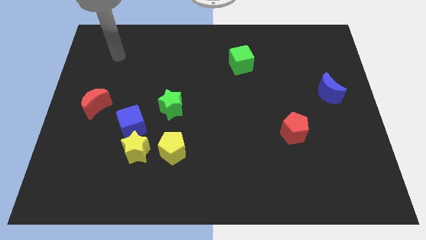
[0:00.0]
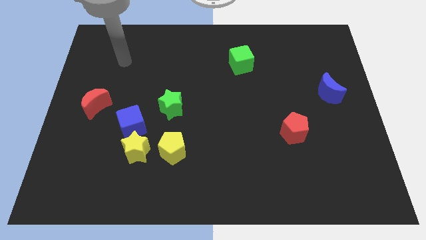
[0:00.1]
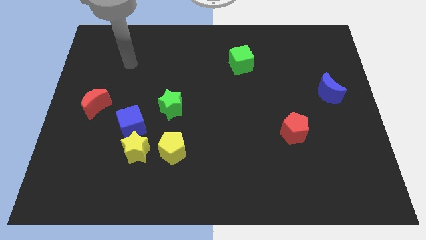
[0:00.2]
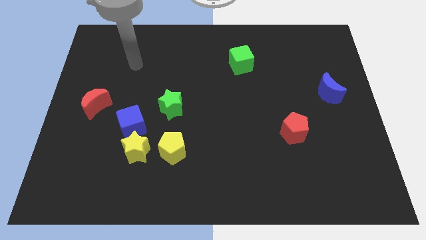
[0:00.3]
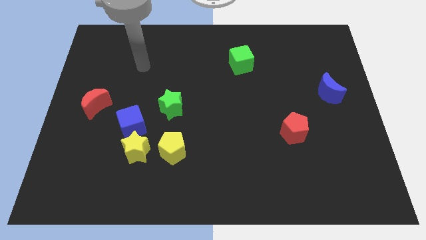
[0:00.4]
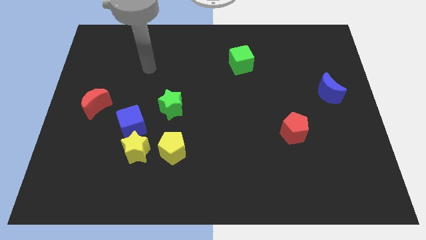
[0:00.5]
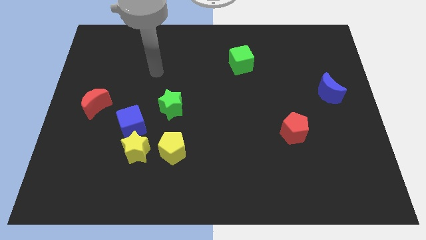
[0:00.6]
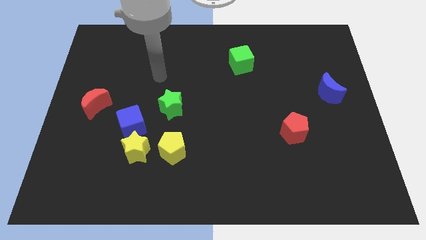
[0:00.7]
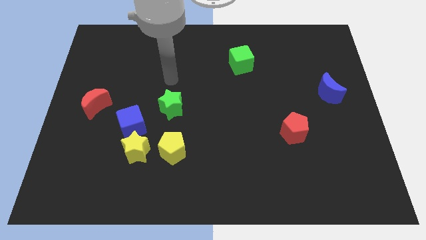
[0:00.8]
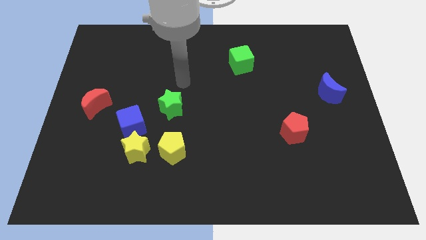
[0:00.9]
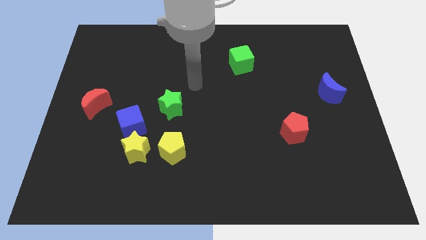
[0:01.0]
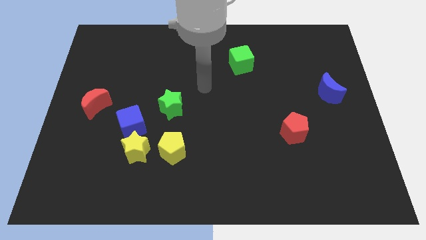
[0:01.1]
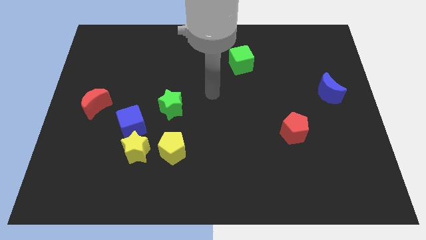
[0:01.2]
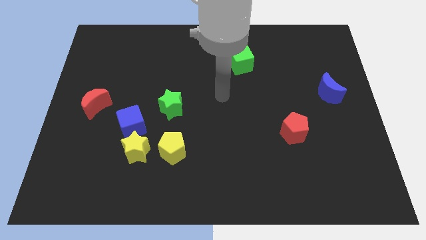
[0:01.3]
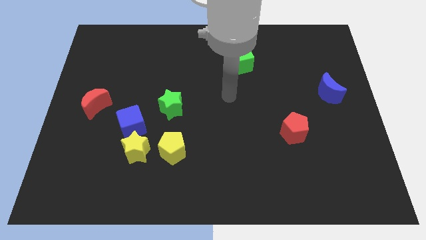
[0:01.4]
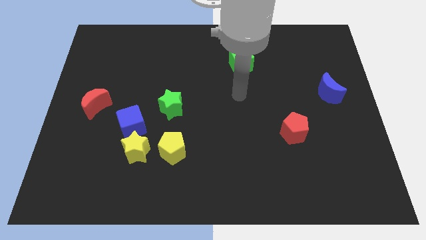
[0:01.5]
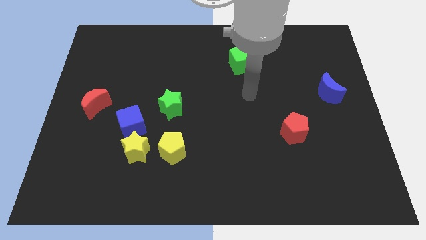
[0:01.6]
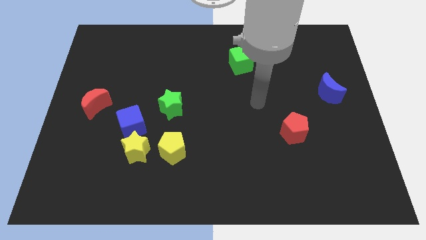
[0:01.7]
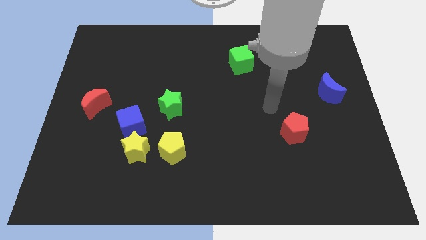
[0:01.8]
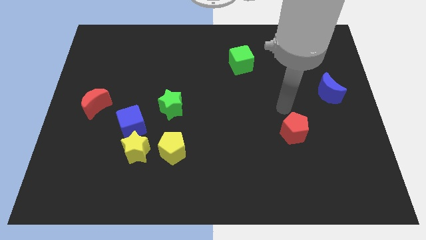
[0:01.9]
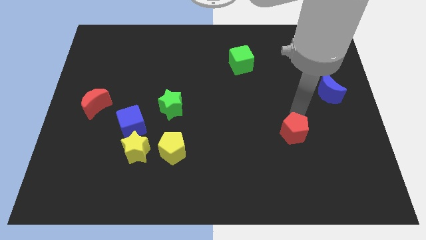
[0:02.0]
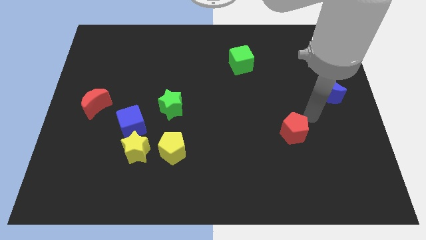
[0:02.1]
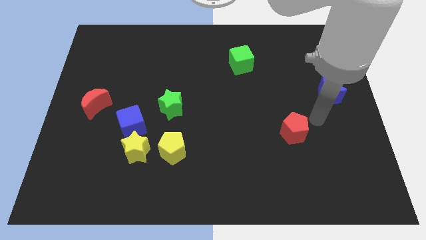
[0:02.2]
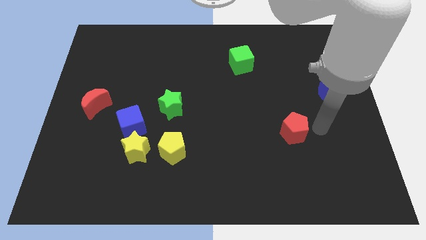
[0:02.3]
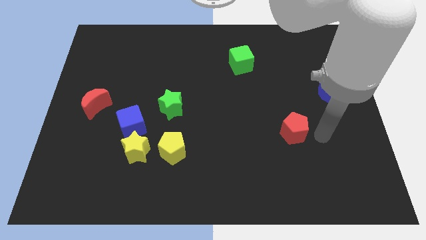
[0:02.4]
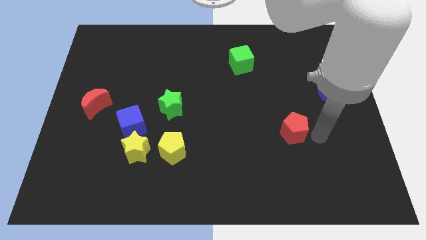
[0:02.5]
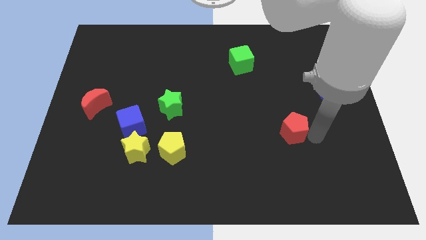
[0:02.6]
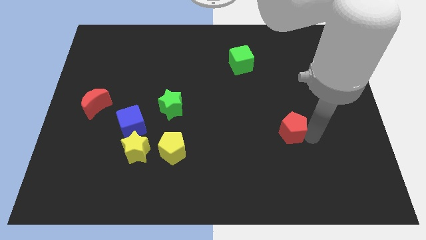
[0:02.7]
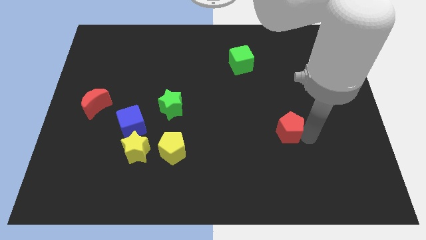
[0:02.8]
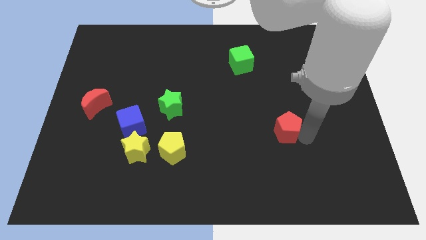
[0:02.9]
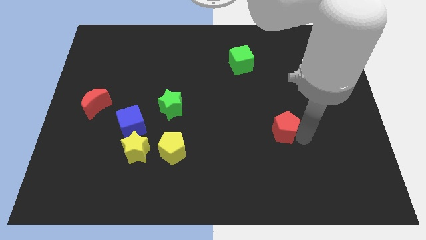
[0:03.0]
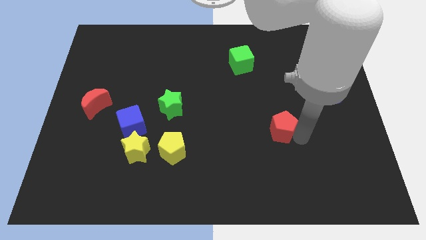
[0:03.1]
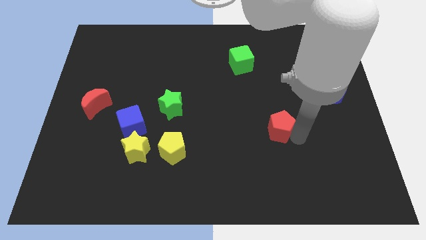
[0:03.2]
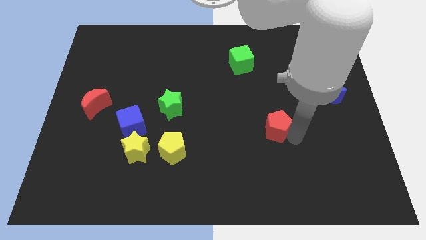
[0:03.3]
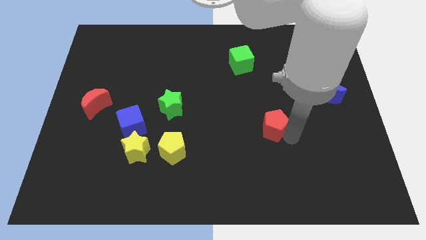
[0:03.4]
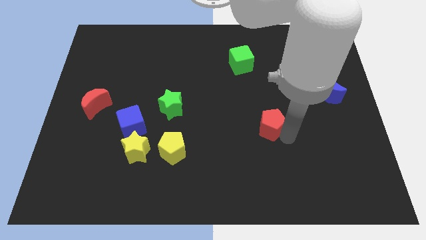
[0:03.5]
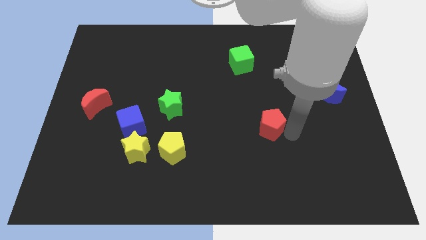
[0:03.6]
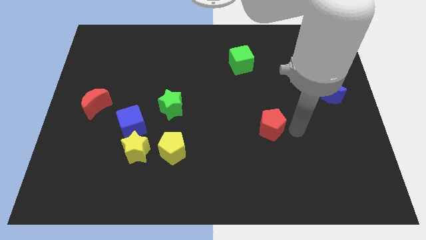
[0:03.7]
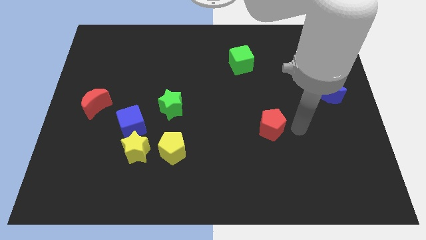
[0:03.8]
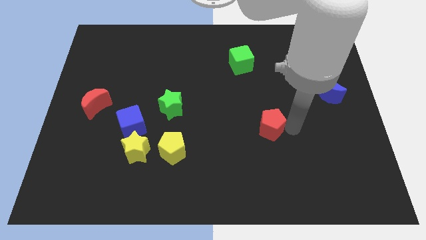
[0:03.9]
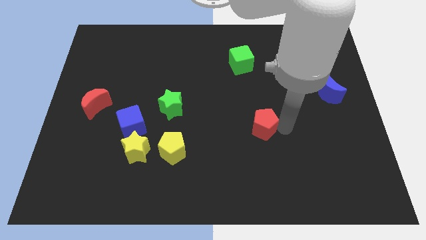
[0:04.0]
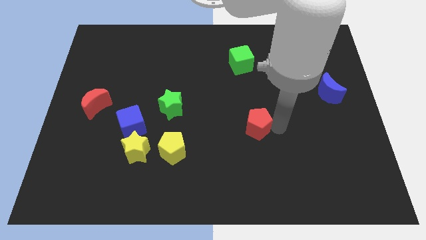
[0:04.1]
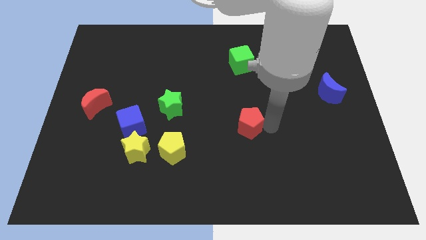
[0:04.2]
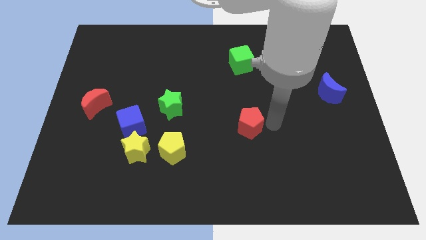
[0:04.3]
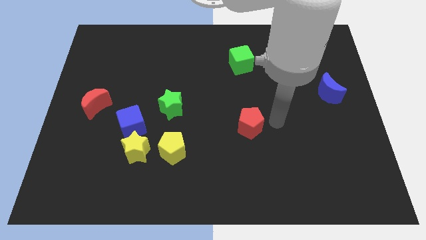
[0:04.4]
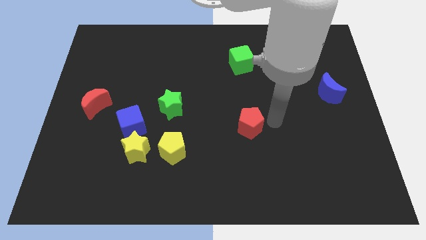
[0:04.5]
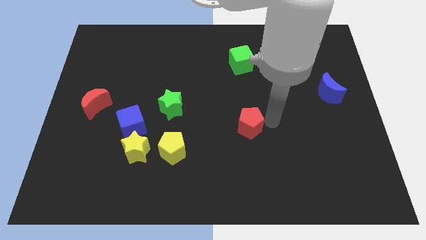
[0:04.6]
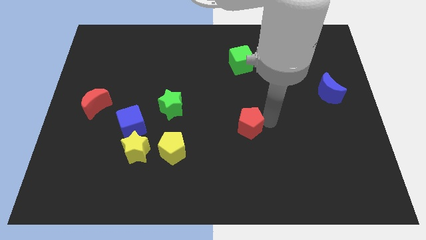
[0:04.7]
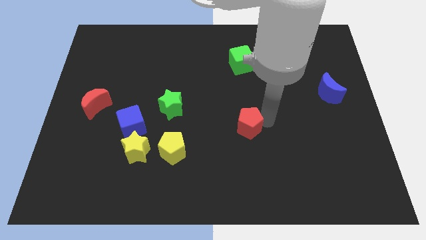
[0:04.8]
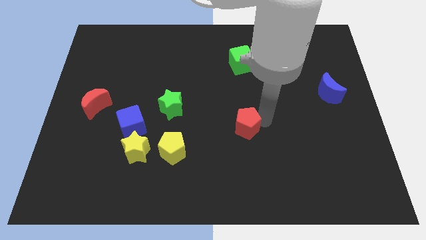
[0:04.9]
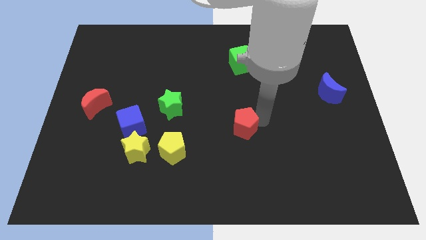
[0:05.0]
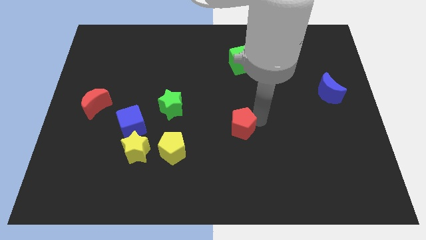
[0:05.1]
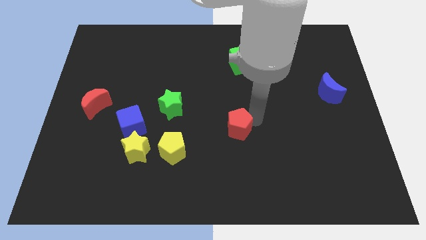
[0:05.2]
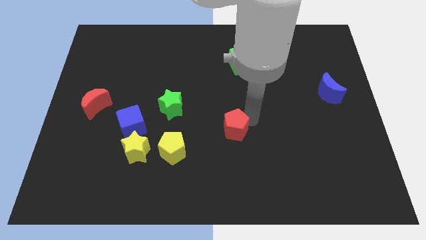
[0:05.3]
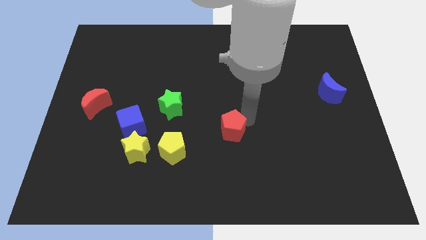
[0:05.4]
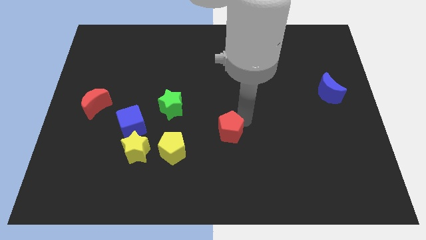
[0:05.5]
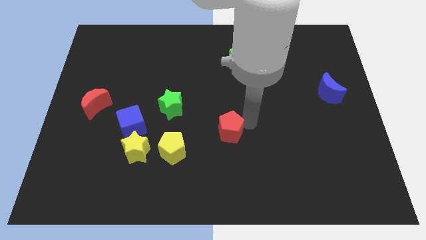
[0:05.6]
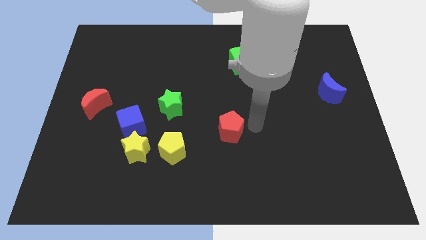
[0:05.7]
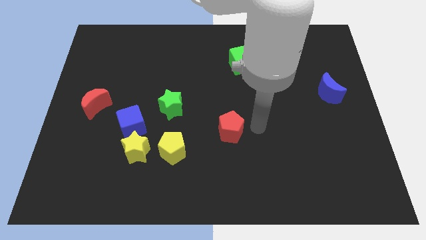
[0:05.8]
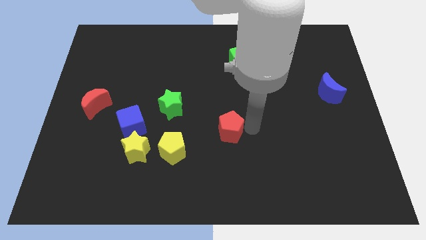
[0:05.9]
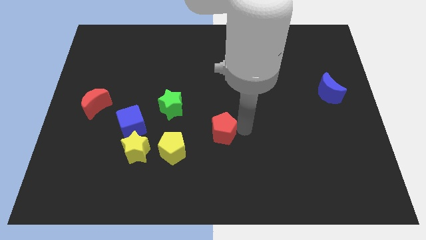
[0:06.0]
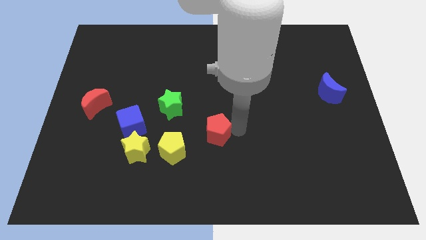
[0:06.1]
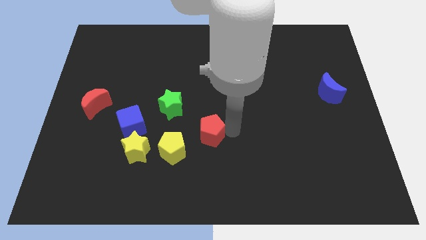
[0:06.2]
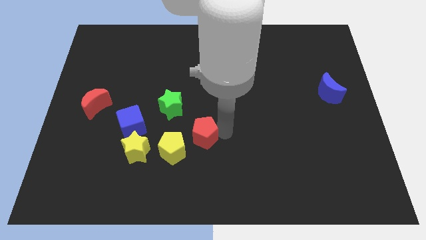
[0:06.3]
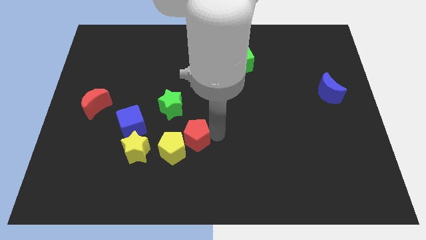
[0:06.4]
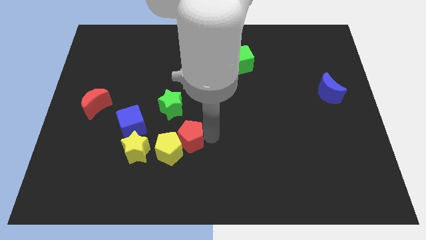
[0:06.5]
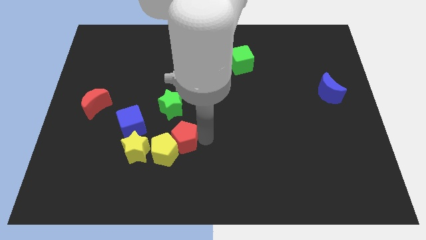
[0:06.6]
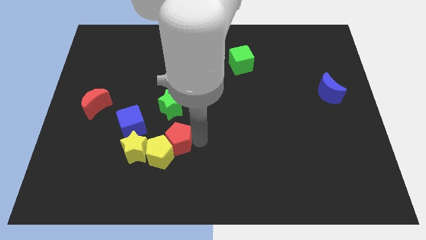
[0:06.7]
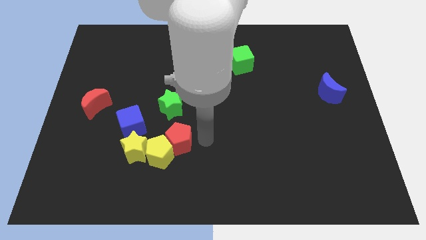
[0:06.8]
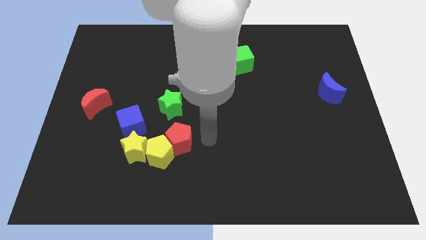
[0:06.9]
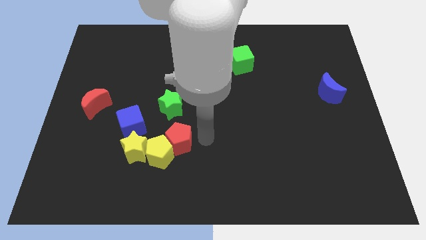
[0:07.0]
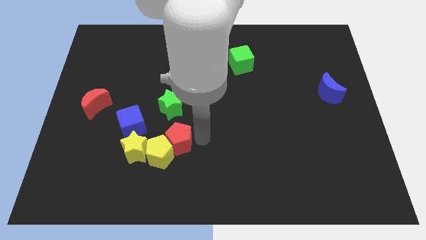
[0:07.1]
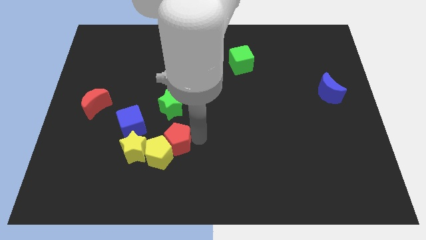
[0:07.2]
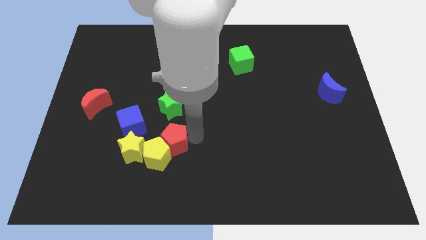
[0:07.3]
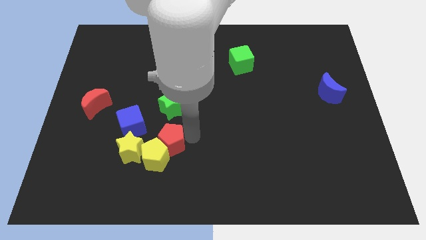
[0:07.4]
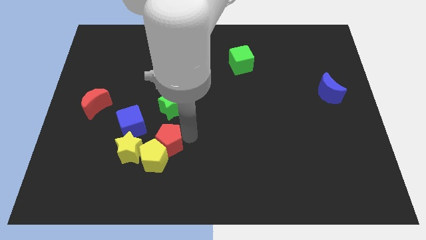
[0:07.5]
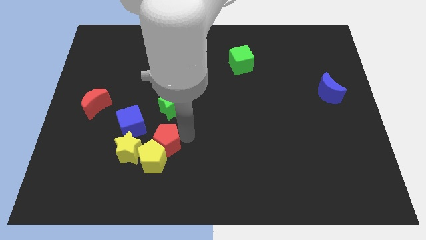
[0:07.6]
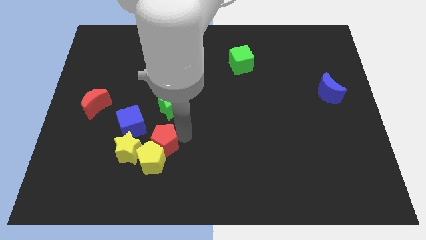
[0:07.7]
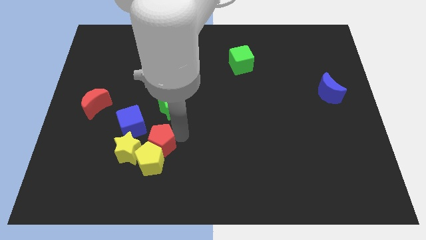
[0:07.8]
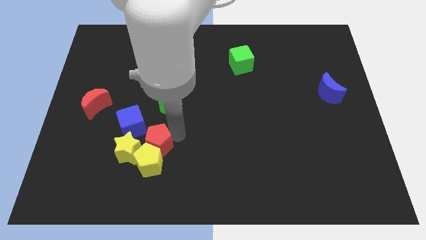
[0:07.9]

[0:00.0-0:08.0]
push the red pentagon to the yellow star
